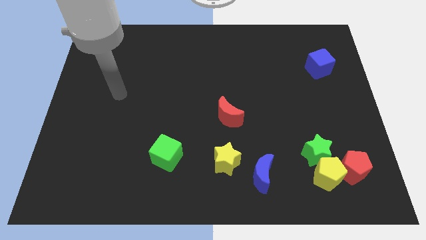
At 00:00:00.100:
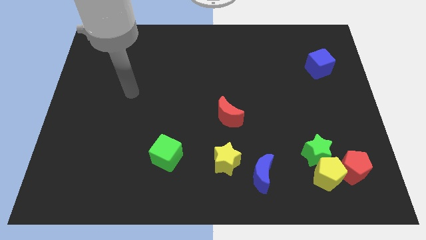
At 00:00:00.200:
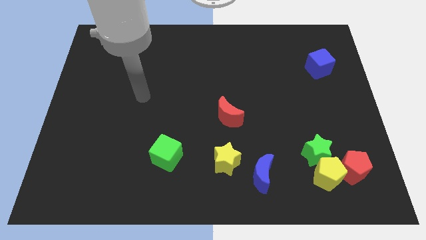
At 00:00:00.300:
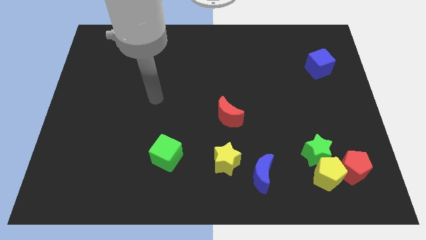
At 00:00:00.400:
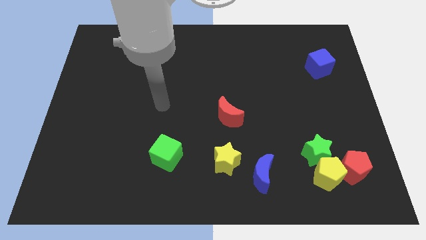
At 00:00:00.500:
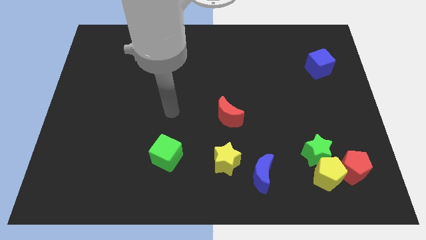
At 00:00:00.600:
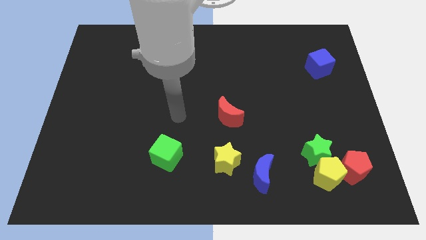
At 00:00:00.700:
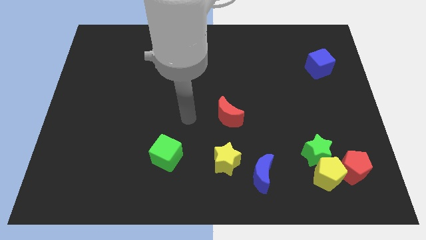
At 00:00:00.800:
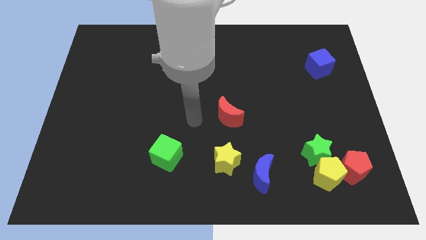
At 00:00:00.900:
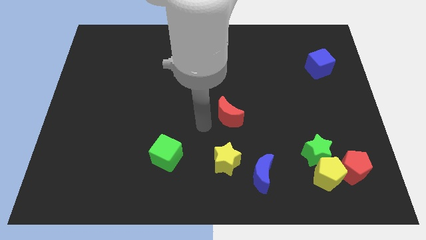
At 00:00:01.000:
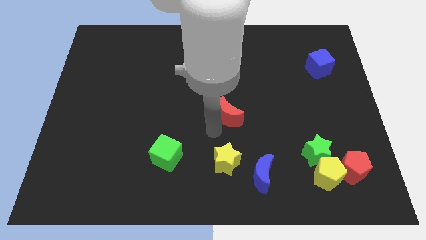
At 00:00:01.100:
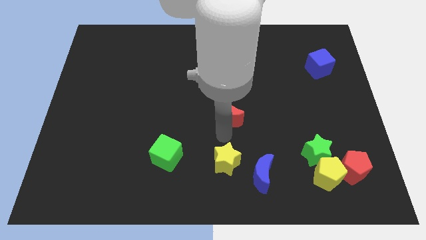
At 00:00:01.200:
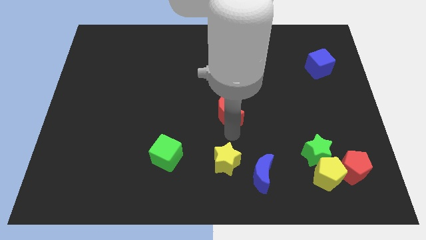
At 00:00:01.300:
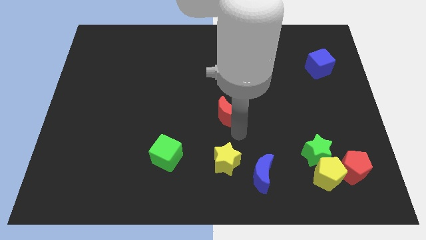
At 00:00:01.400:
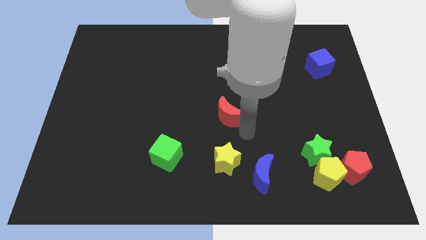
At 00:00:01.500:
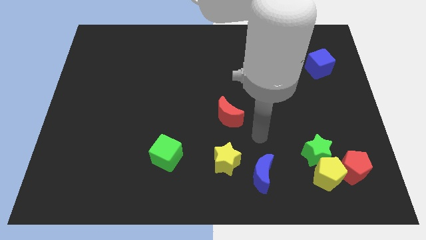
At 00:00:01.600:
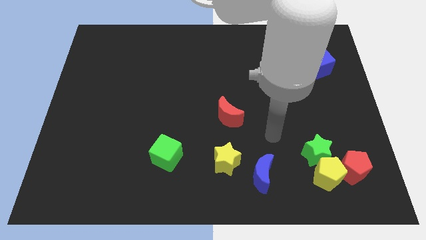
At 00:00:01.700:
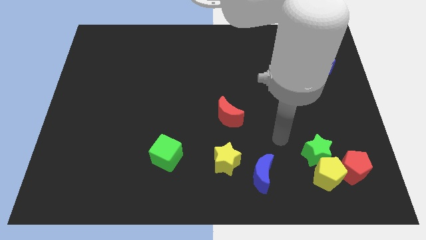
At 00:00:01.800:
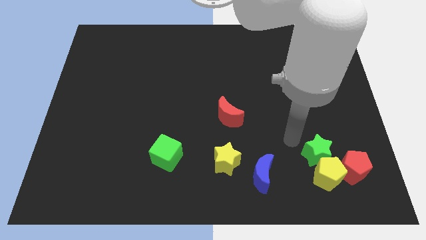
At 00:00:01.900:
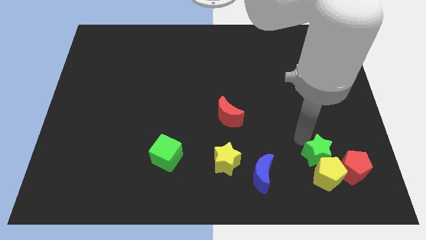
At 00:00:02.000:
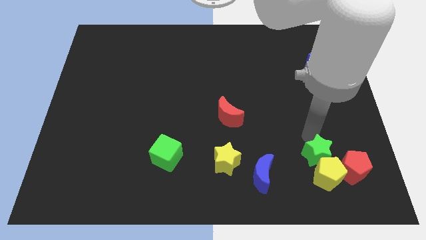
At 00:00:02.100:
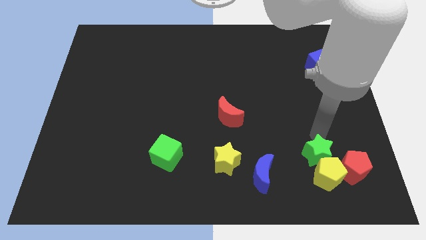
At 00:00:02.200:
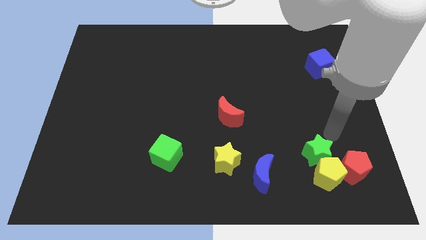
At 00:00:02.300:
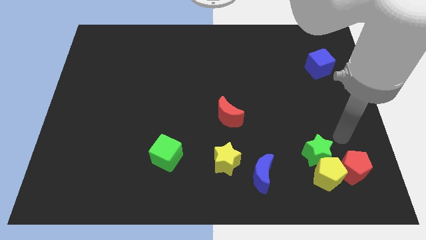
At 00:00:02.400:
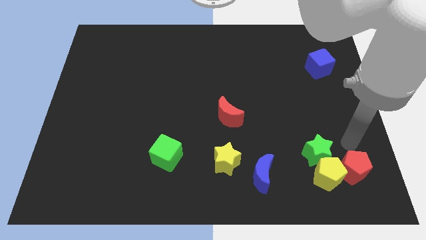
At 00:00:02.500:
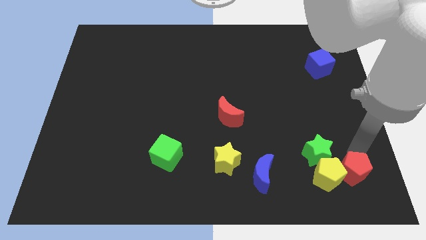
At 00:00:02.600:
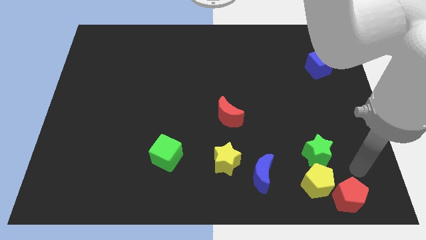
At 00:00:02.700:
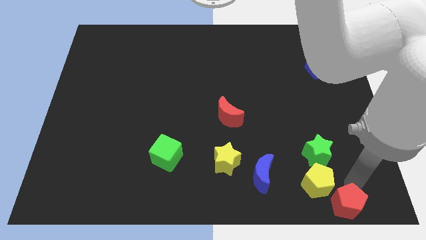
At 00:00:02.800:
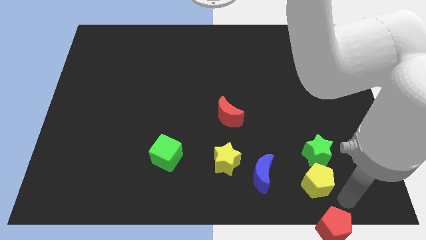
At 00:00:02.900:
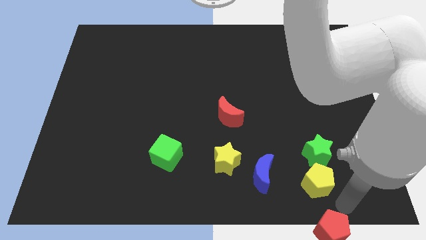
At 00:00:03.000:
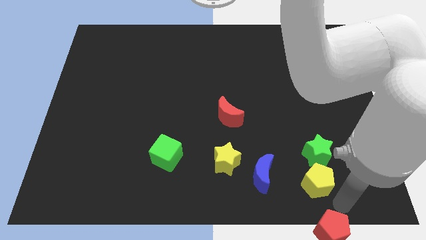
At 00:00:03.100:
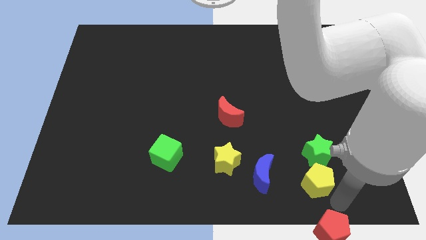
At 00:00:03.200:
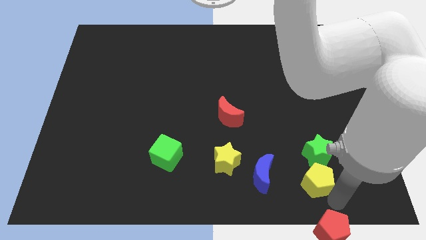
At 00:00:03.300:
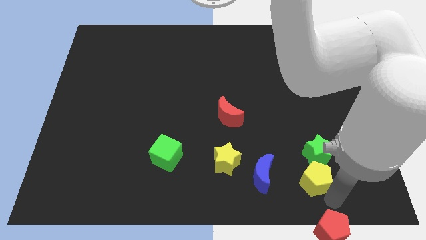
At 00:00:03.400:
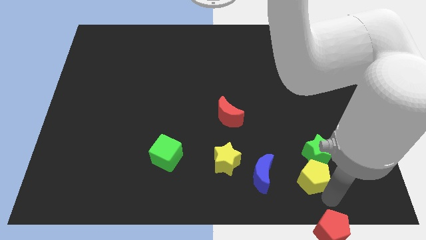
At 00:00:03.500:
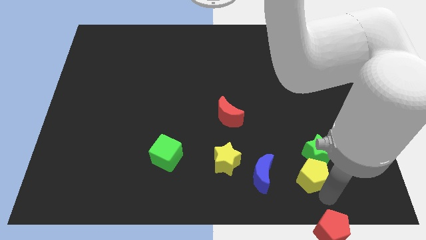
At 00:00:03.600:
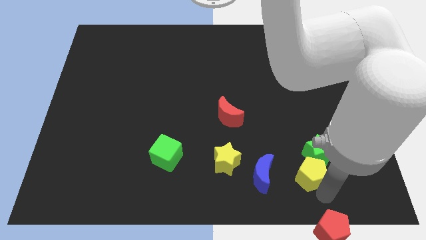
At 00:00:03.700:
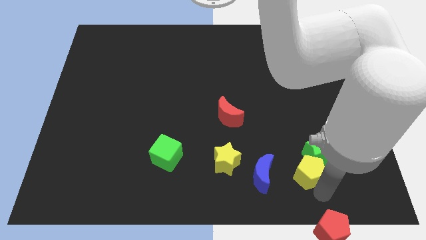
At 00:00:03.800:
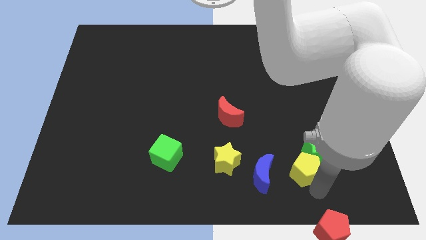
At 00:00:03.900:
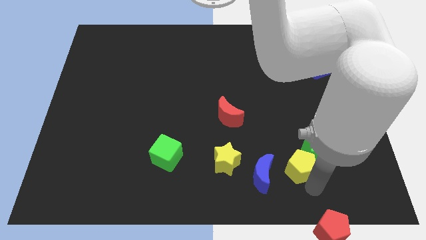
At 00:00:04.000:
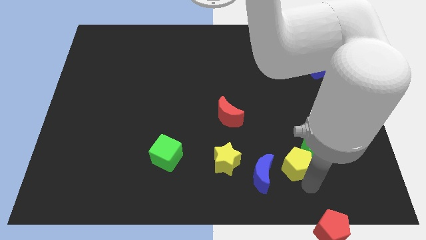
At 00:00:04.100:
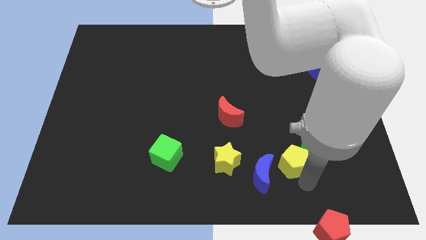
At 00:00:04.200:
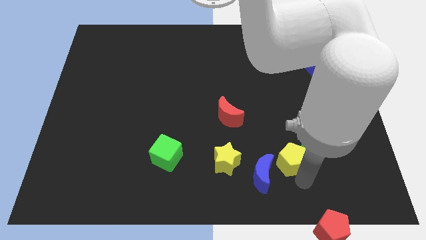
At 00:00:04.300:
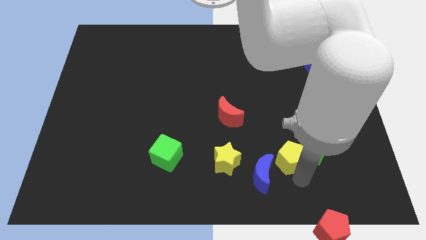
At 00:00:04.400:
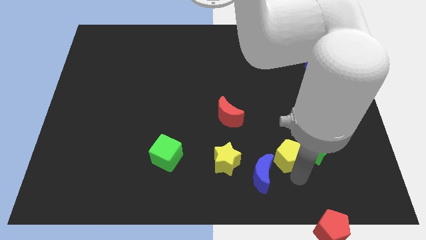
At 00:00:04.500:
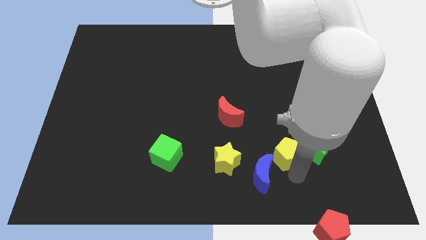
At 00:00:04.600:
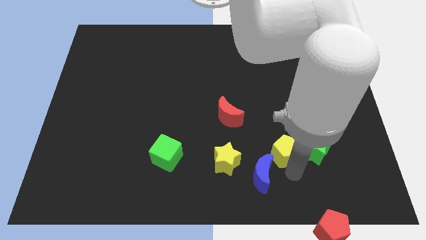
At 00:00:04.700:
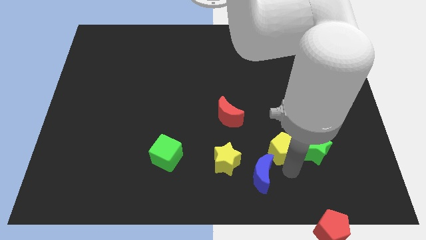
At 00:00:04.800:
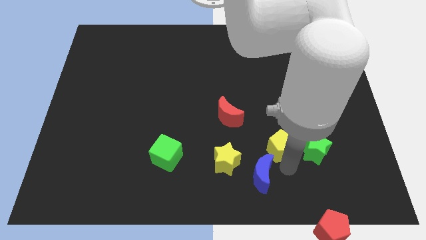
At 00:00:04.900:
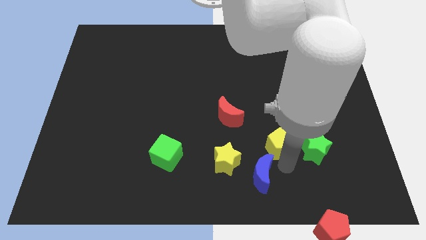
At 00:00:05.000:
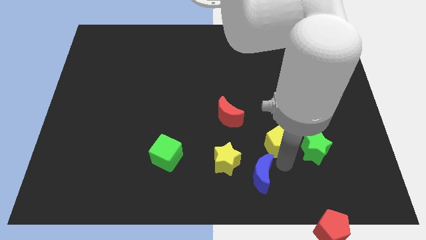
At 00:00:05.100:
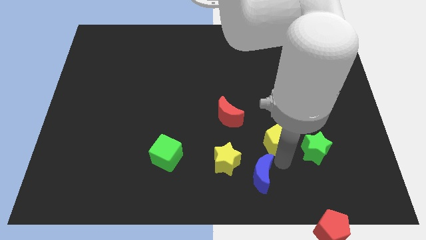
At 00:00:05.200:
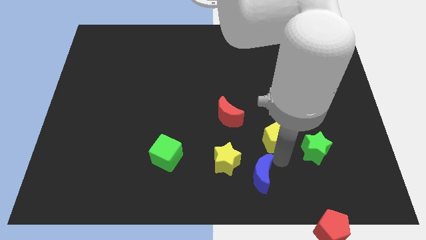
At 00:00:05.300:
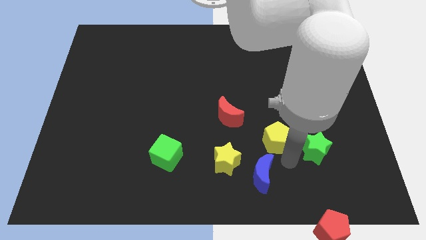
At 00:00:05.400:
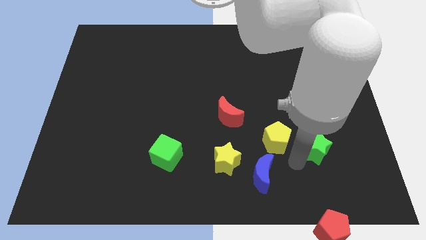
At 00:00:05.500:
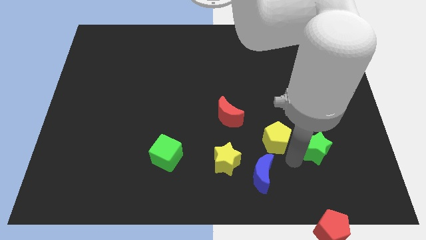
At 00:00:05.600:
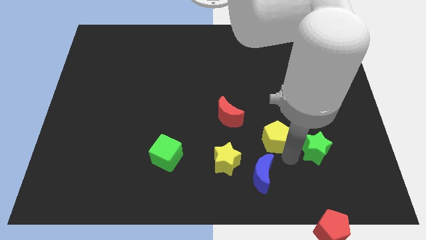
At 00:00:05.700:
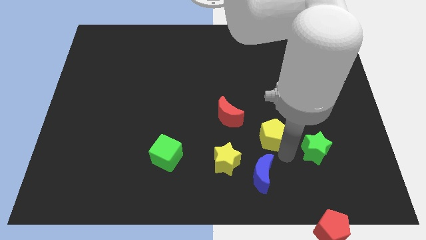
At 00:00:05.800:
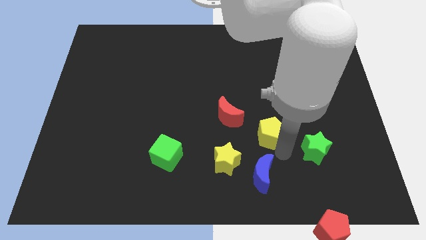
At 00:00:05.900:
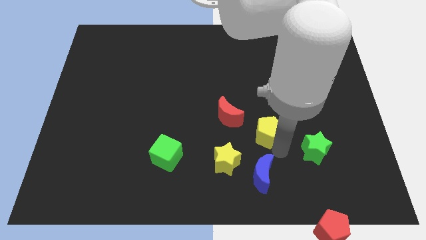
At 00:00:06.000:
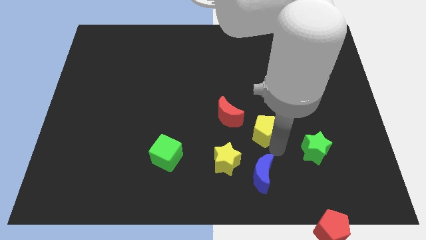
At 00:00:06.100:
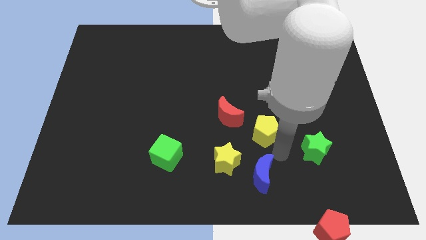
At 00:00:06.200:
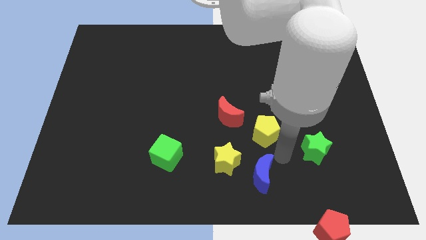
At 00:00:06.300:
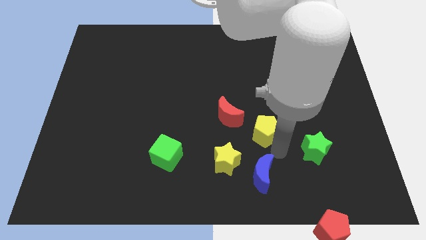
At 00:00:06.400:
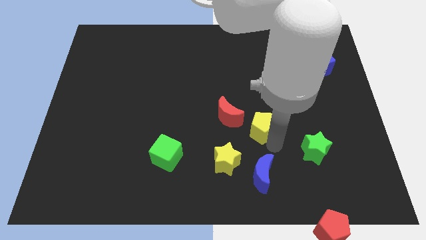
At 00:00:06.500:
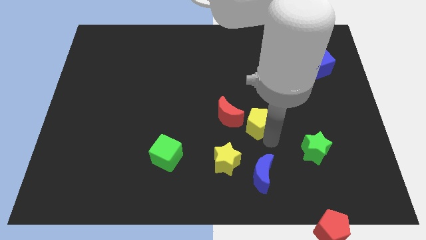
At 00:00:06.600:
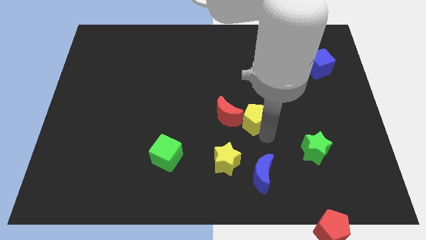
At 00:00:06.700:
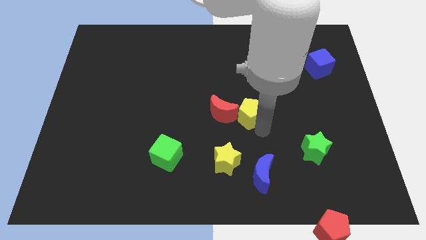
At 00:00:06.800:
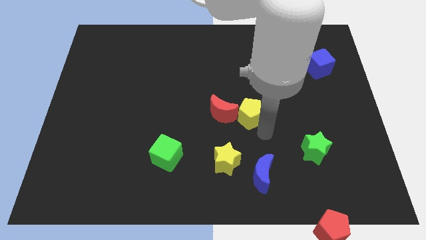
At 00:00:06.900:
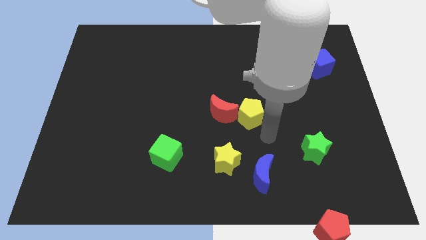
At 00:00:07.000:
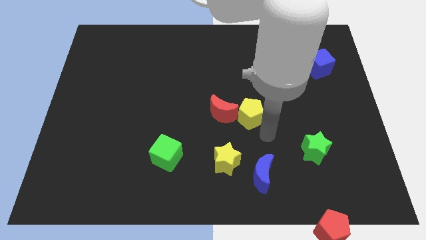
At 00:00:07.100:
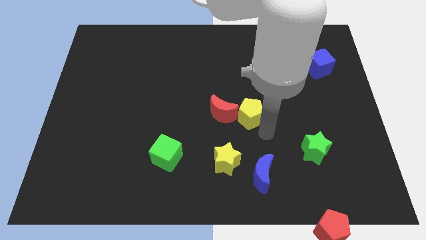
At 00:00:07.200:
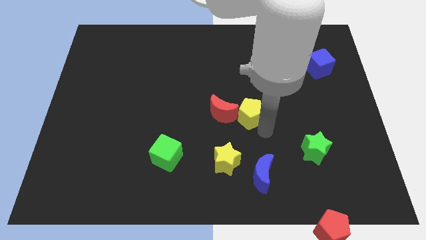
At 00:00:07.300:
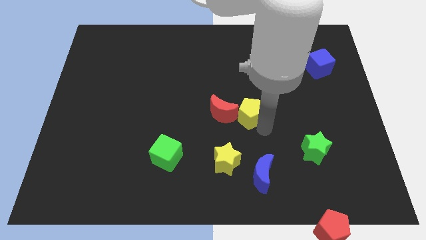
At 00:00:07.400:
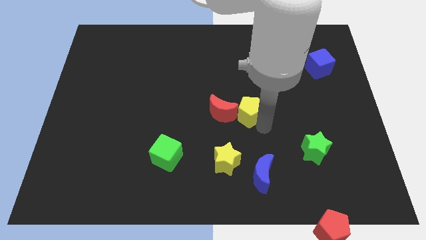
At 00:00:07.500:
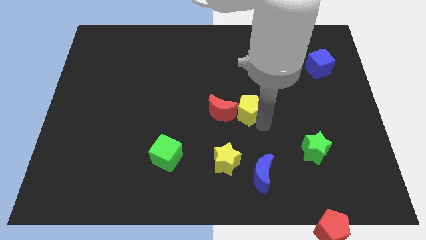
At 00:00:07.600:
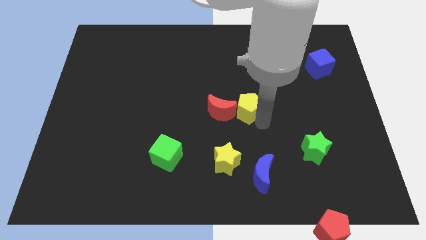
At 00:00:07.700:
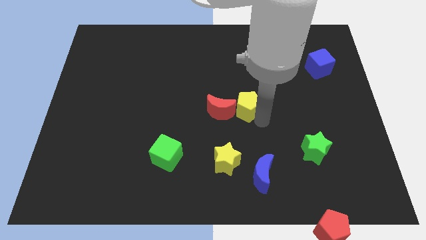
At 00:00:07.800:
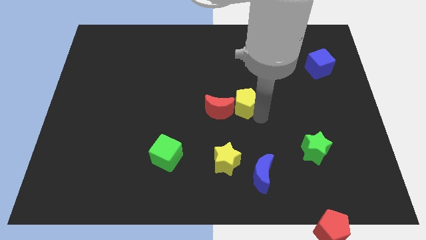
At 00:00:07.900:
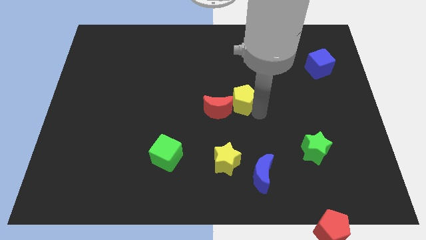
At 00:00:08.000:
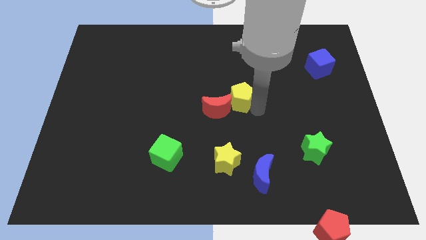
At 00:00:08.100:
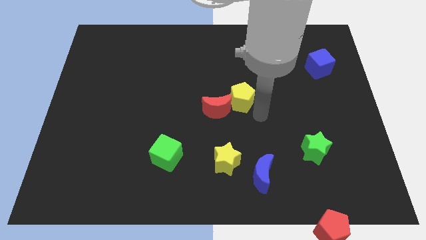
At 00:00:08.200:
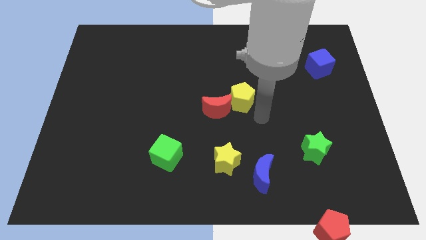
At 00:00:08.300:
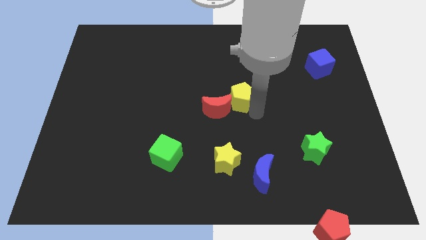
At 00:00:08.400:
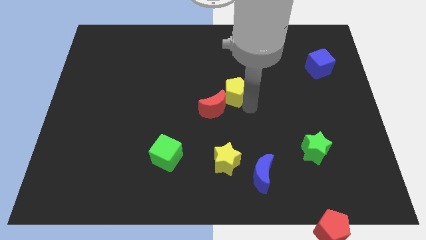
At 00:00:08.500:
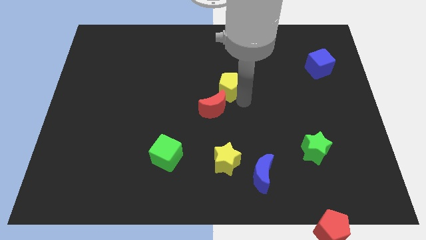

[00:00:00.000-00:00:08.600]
put the yellow pentagon to the top of the red moon
